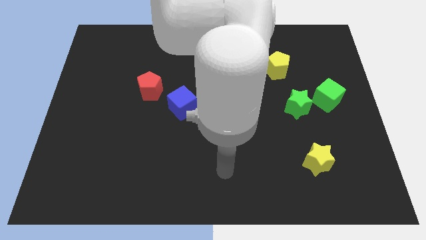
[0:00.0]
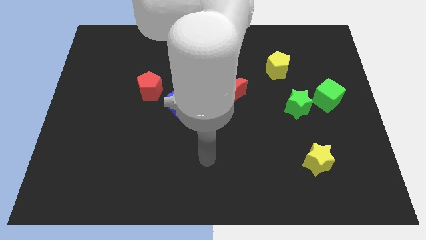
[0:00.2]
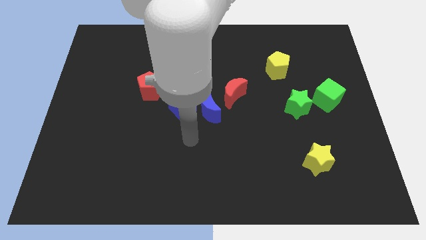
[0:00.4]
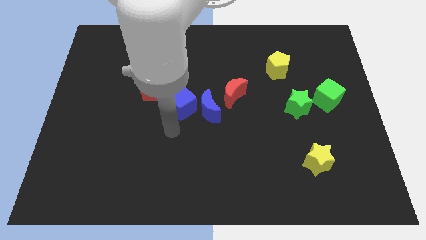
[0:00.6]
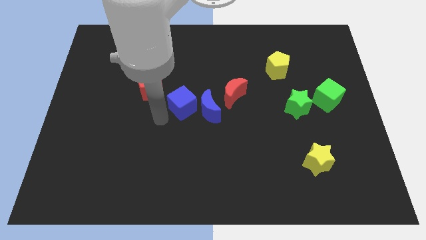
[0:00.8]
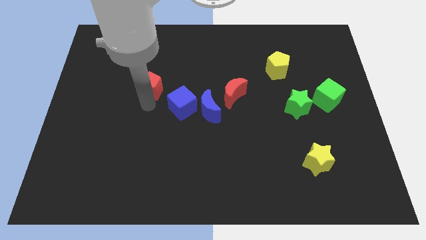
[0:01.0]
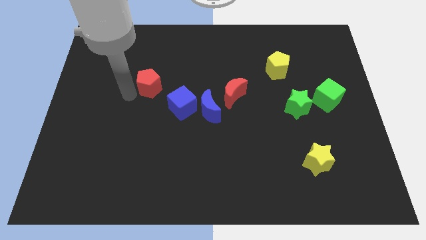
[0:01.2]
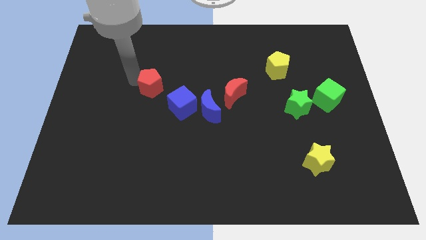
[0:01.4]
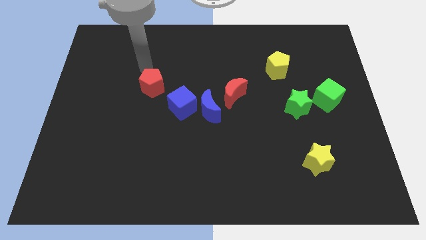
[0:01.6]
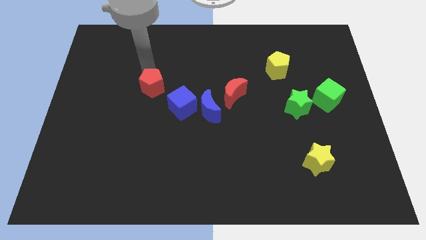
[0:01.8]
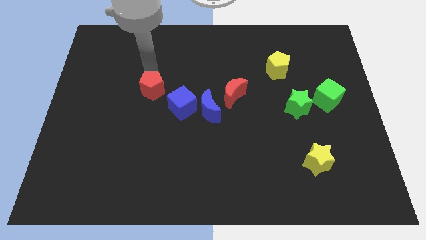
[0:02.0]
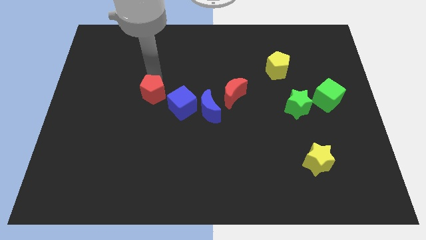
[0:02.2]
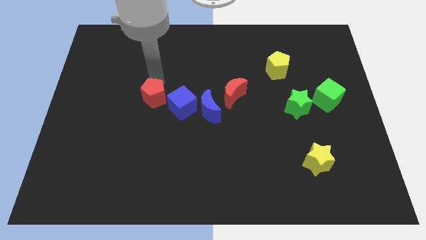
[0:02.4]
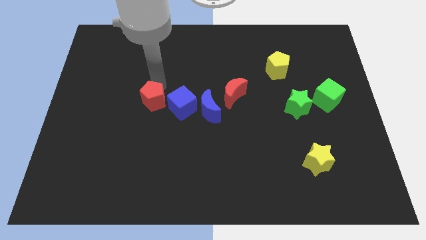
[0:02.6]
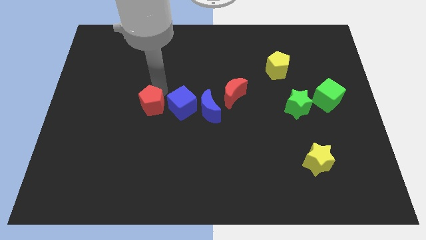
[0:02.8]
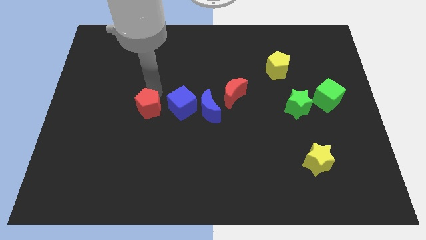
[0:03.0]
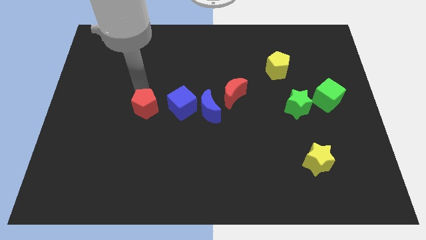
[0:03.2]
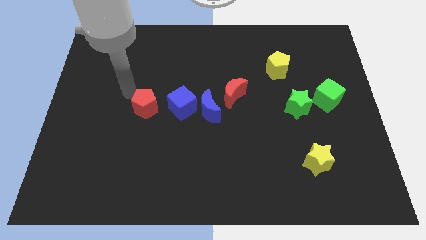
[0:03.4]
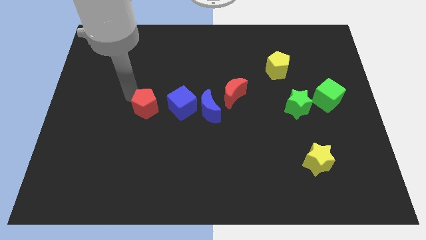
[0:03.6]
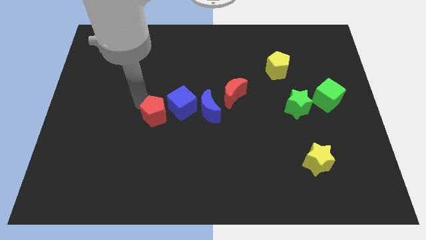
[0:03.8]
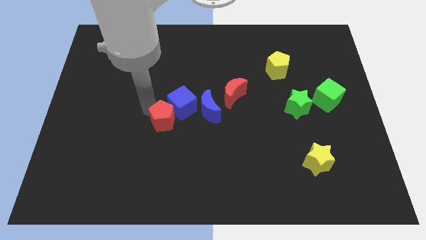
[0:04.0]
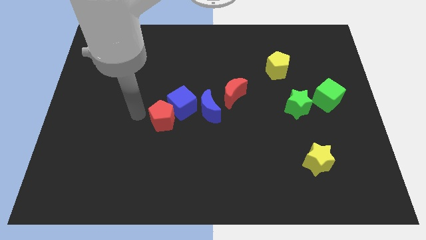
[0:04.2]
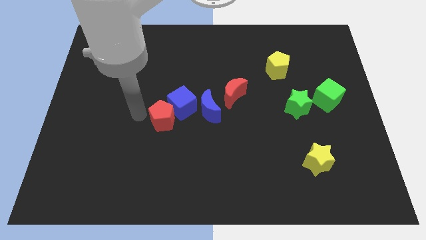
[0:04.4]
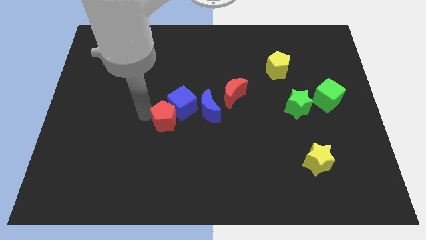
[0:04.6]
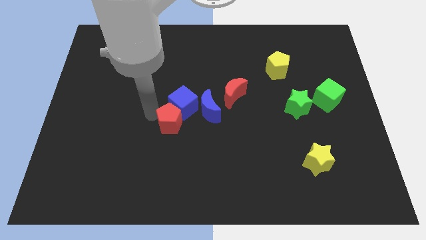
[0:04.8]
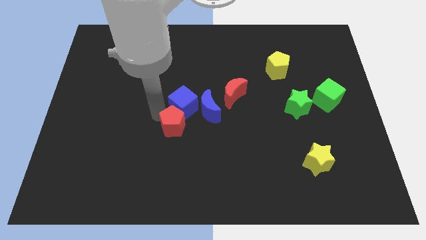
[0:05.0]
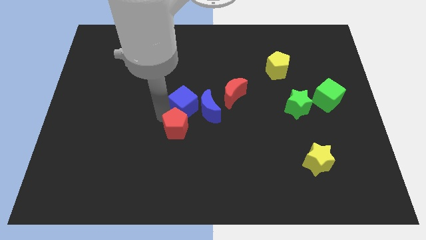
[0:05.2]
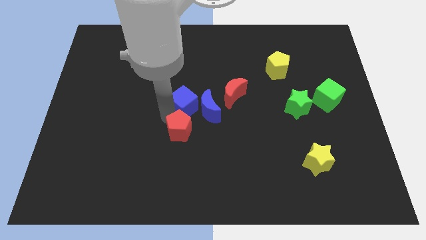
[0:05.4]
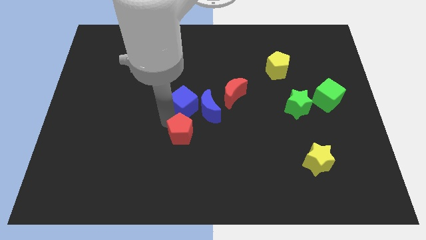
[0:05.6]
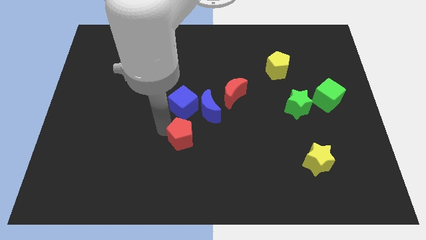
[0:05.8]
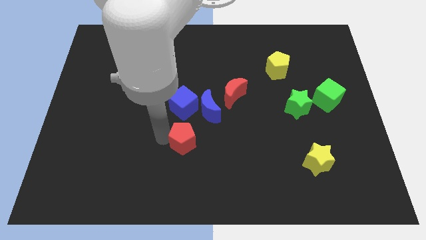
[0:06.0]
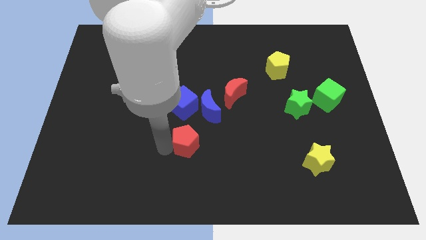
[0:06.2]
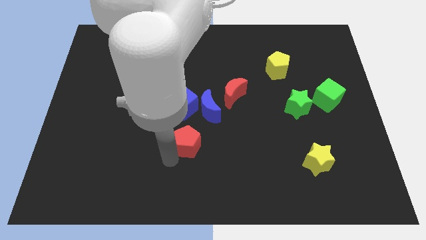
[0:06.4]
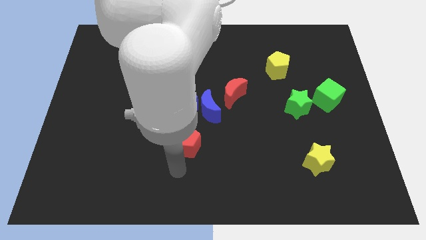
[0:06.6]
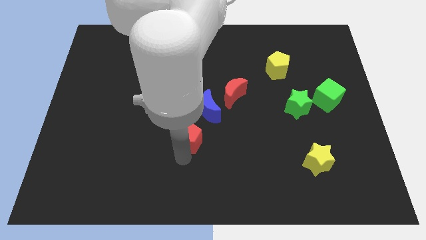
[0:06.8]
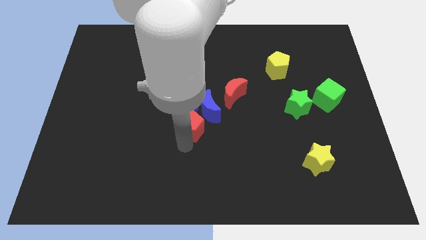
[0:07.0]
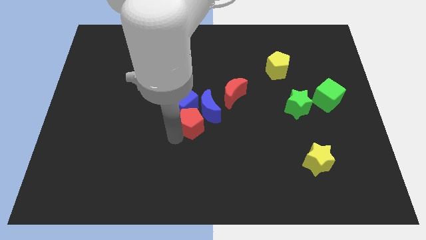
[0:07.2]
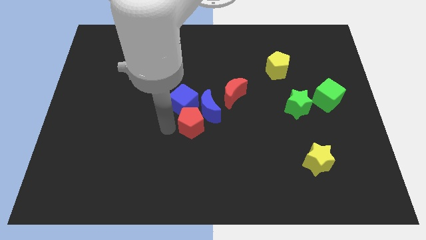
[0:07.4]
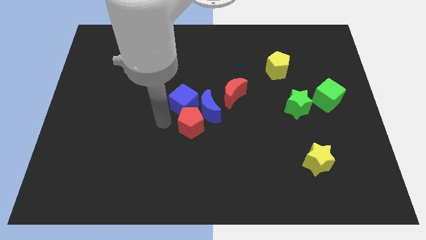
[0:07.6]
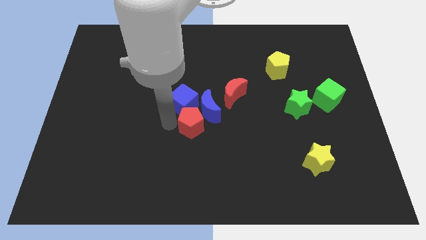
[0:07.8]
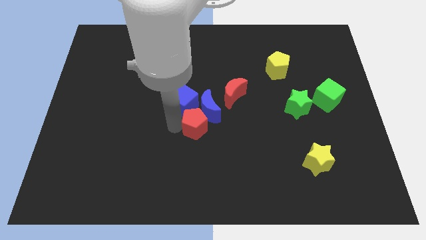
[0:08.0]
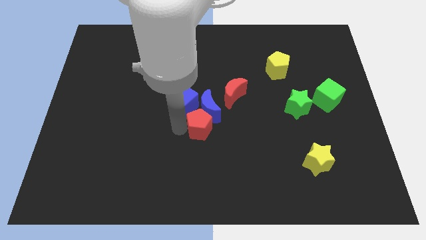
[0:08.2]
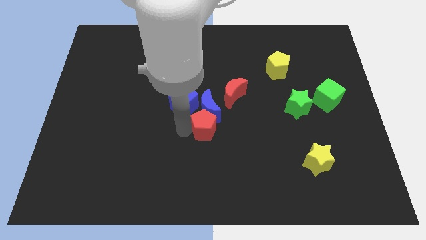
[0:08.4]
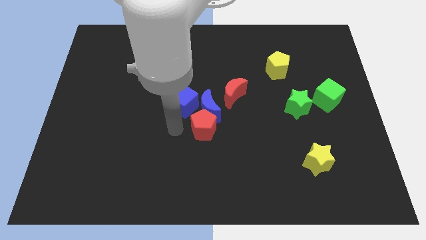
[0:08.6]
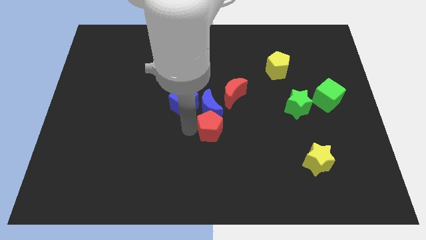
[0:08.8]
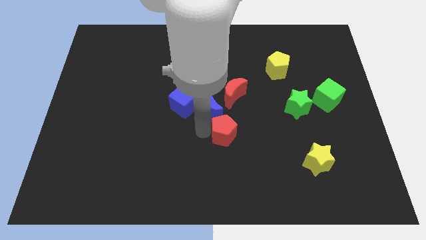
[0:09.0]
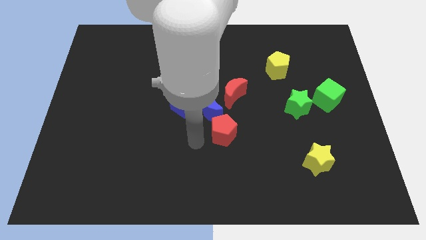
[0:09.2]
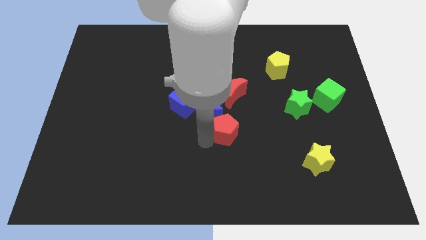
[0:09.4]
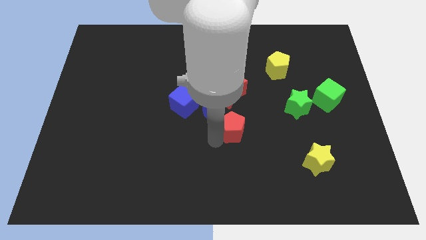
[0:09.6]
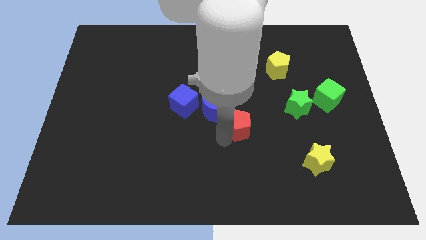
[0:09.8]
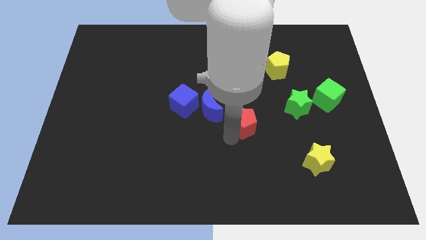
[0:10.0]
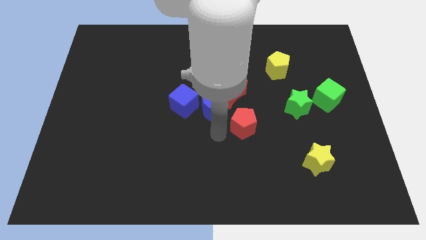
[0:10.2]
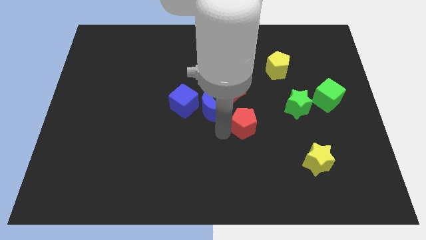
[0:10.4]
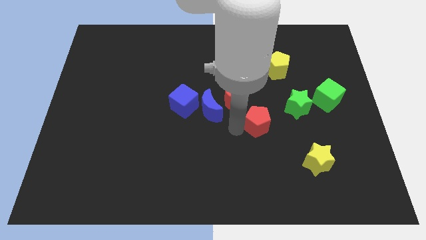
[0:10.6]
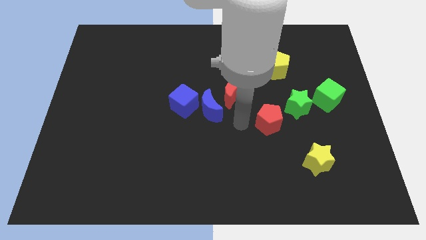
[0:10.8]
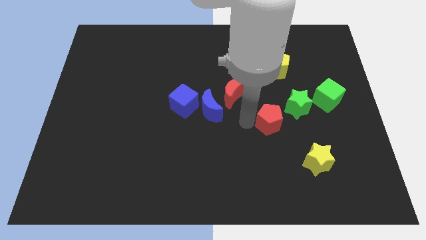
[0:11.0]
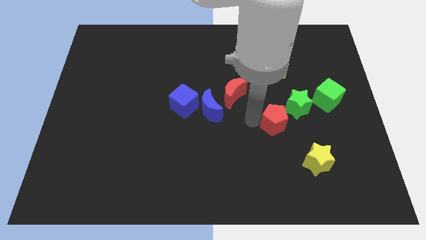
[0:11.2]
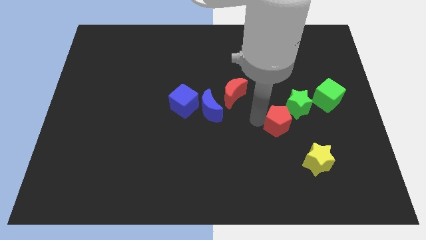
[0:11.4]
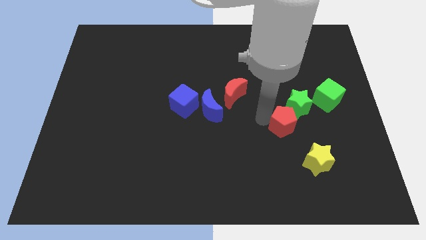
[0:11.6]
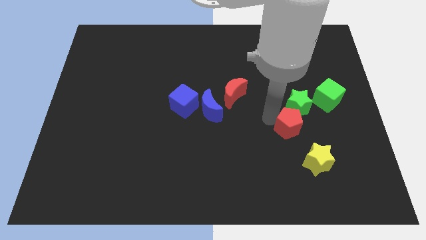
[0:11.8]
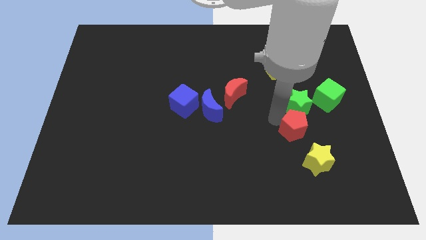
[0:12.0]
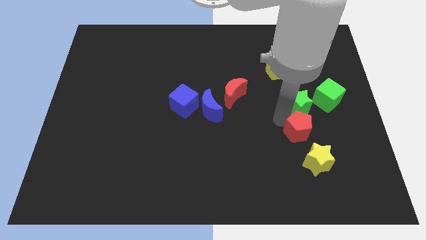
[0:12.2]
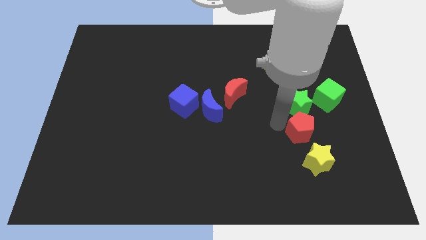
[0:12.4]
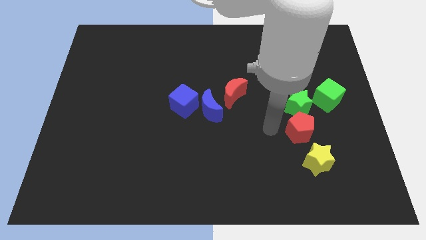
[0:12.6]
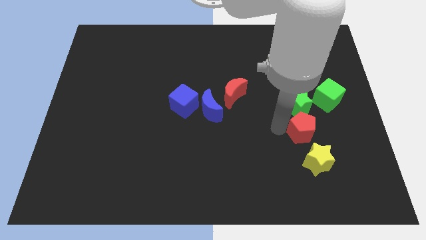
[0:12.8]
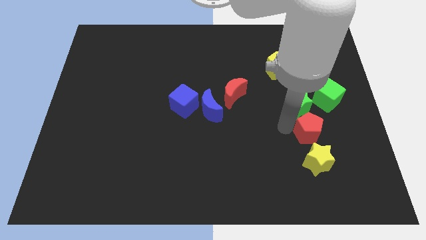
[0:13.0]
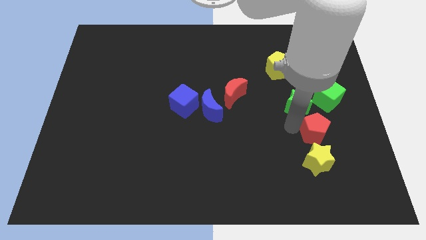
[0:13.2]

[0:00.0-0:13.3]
slide the red pentagon to the bottom of the green cube
